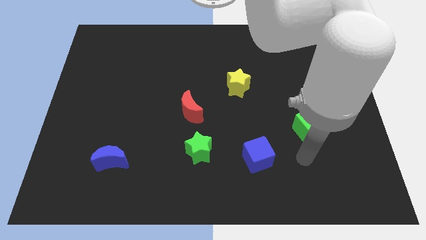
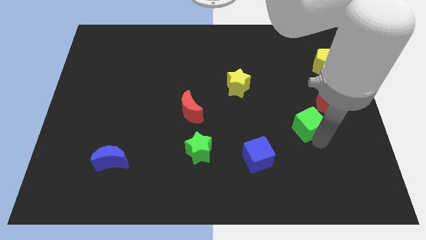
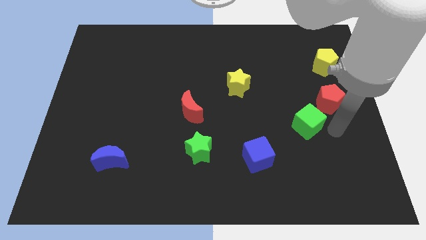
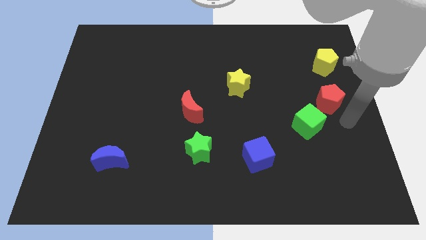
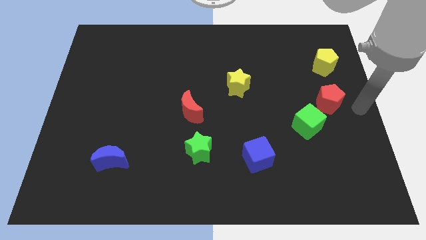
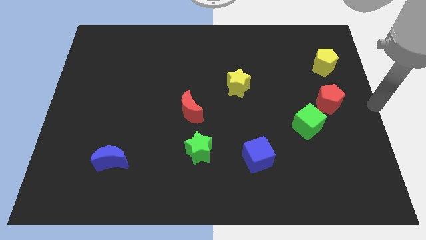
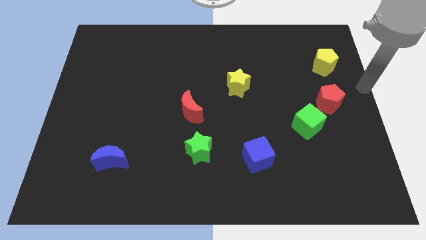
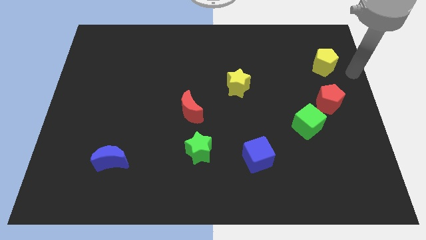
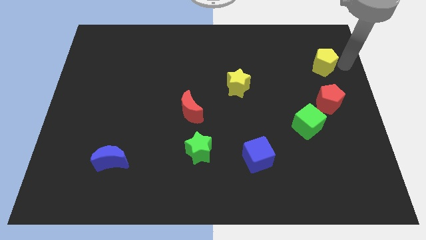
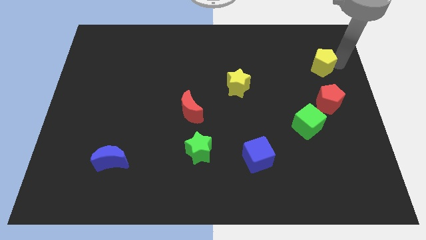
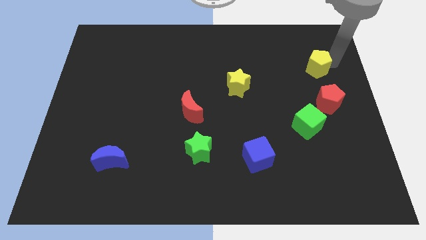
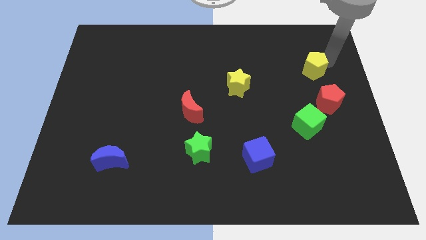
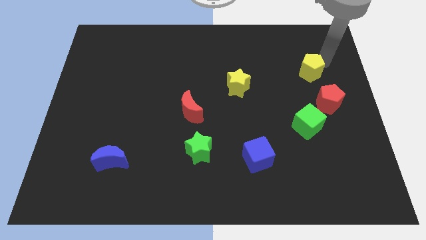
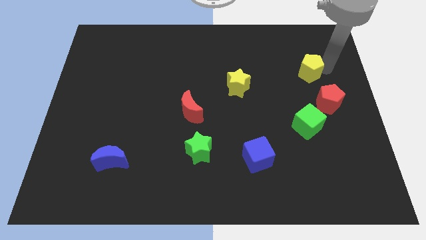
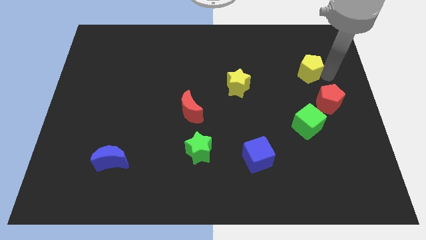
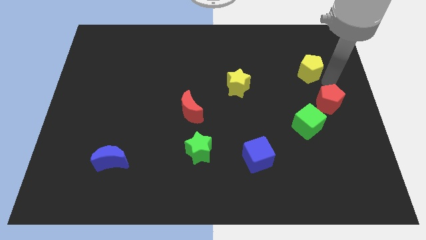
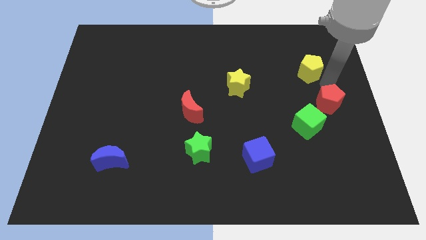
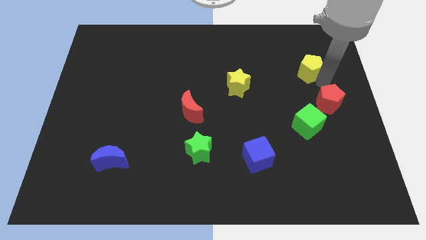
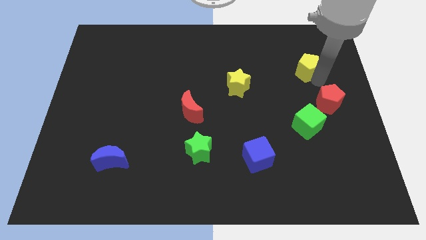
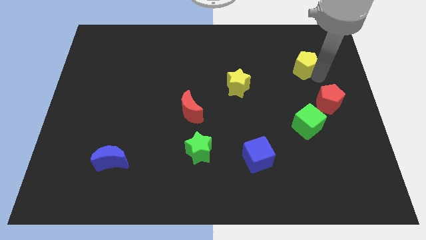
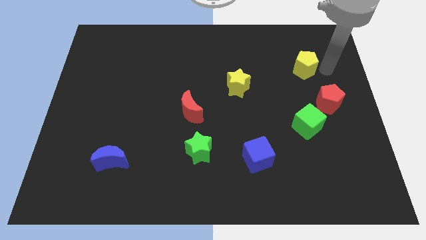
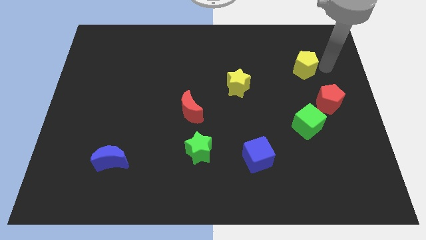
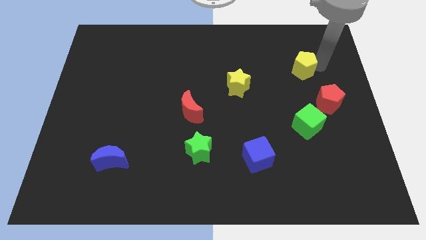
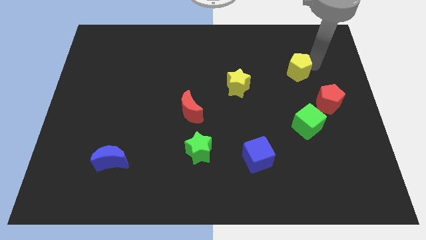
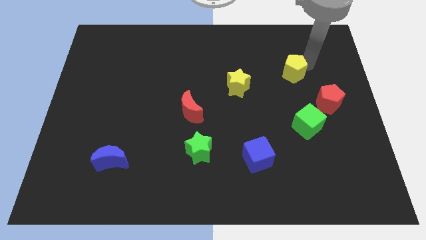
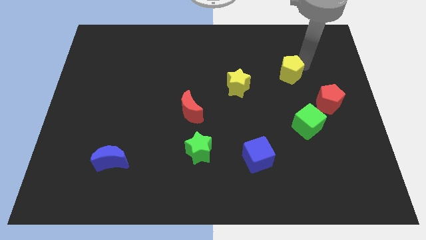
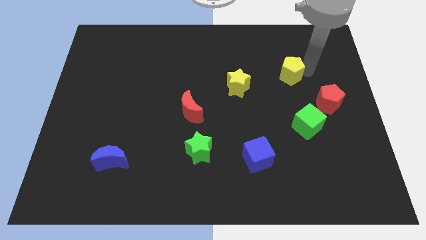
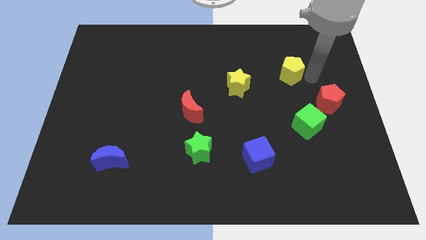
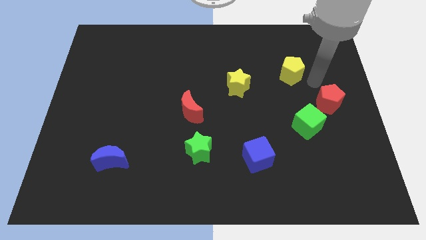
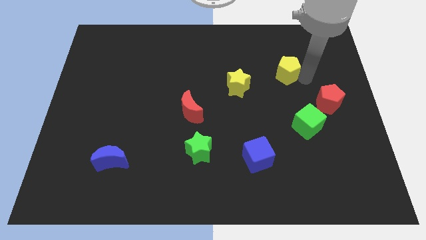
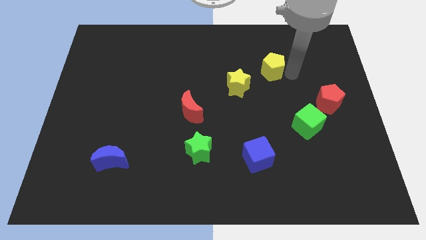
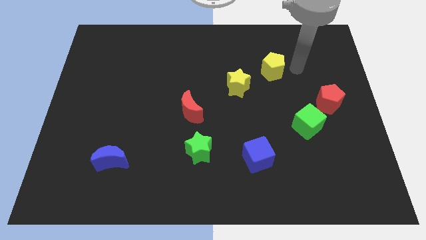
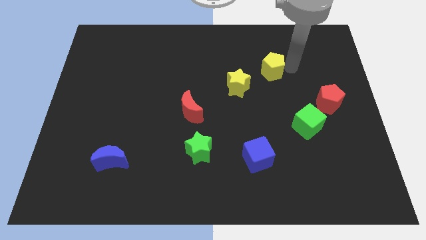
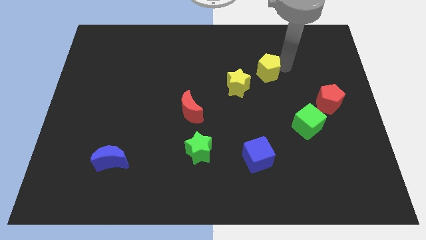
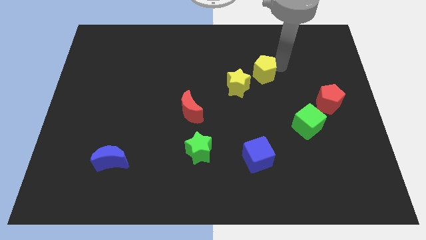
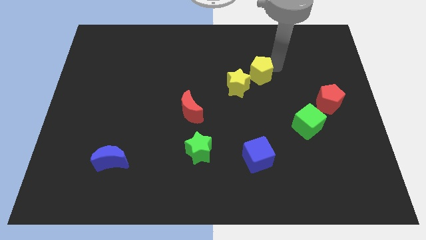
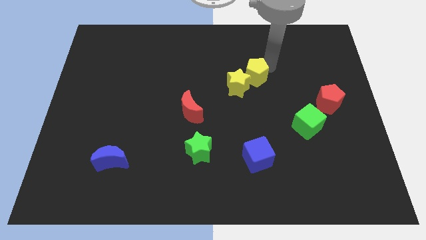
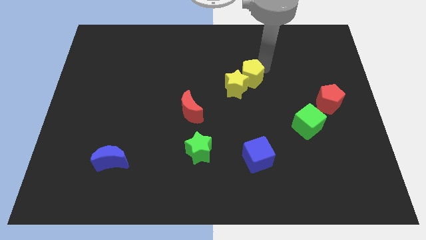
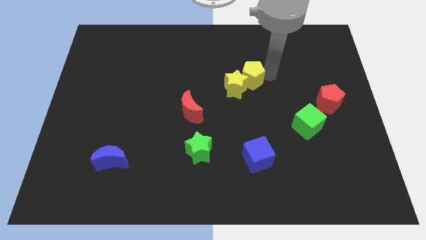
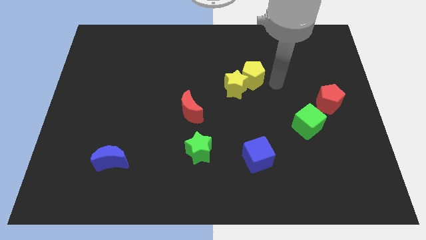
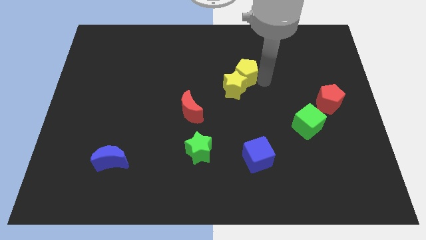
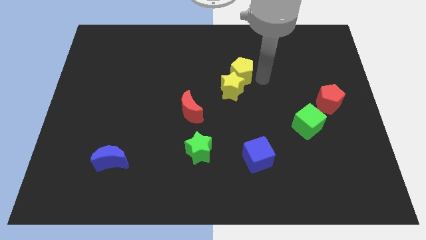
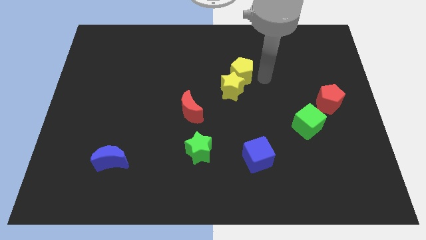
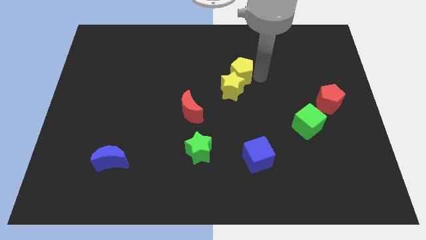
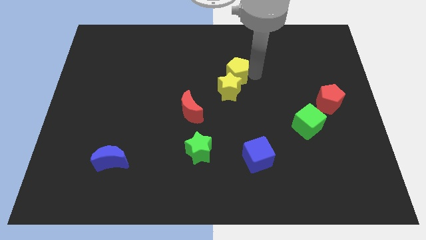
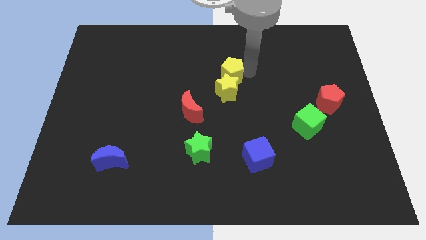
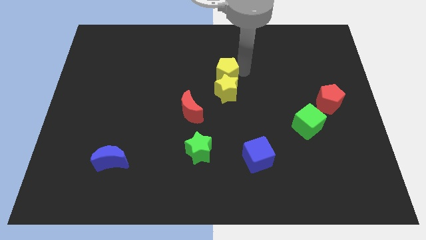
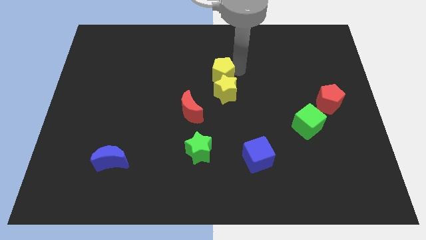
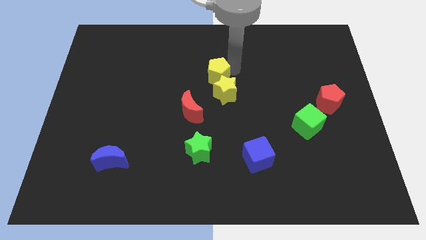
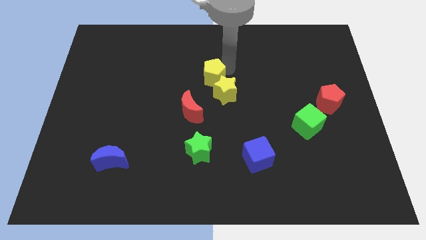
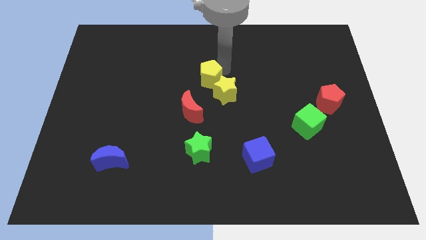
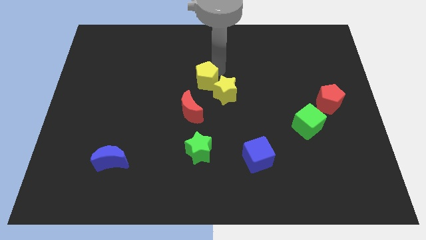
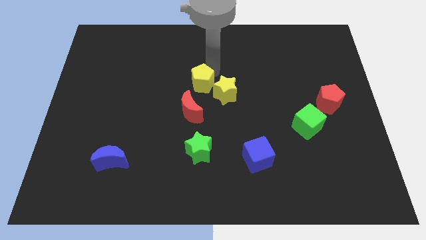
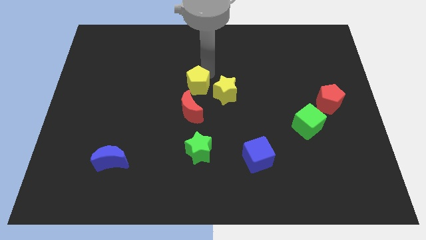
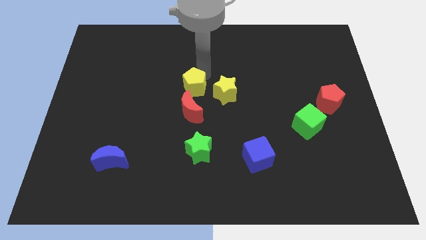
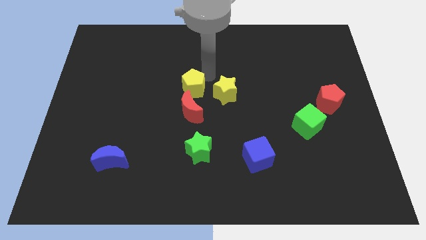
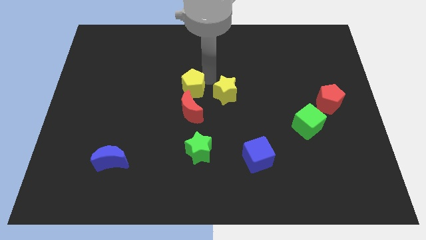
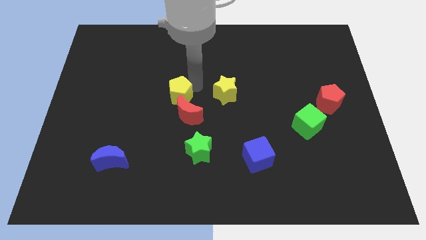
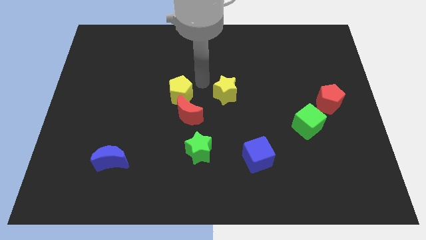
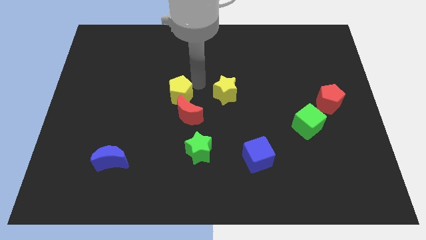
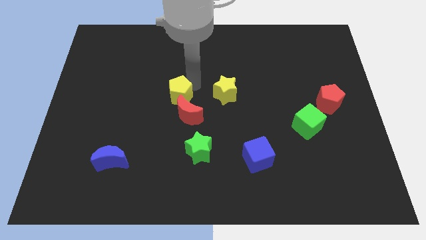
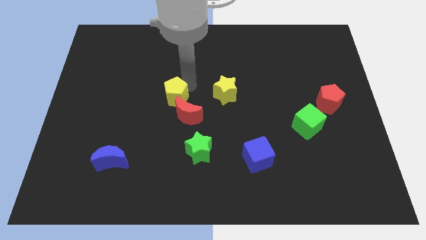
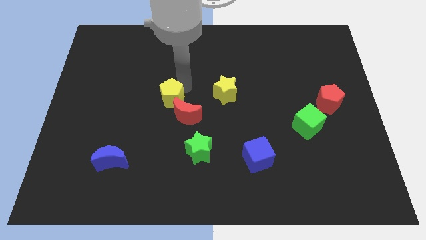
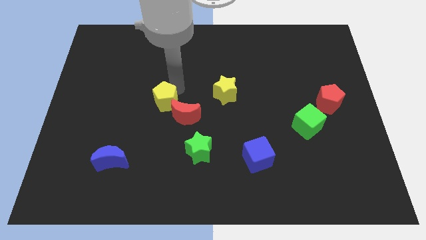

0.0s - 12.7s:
move the yellow pentagon left of the red moon

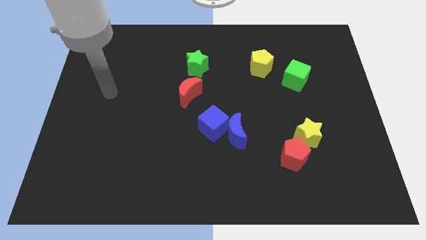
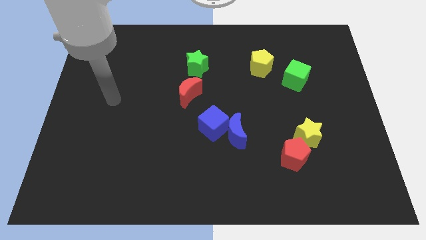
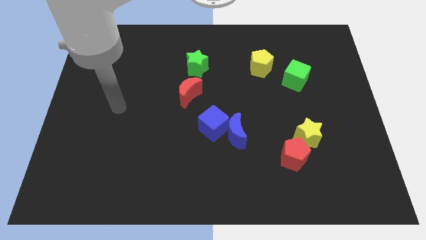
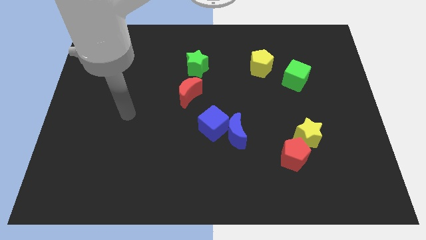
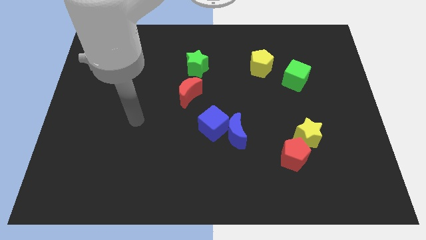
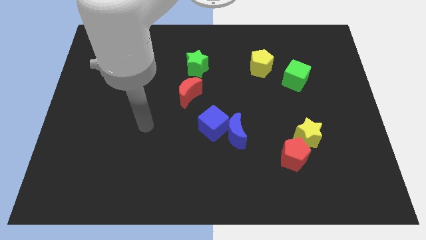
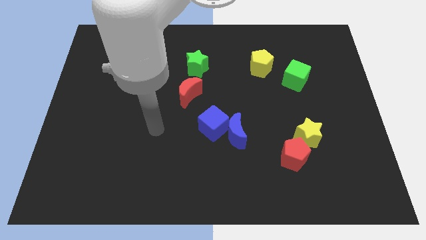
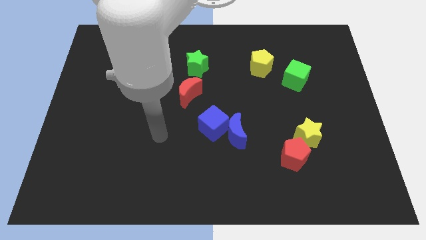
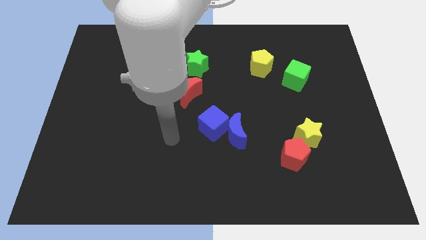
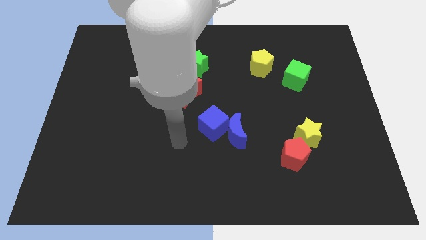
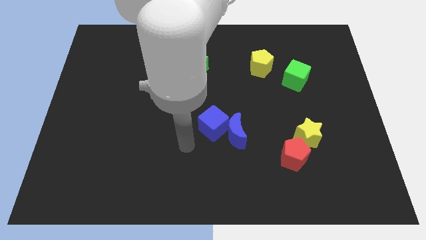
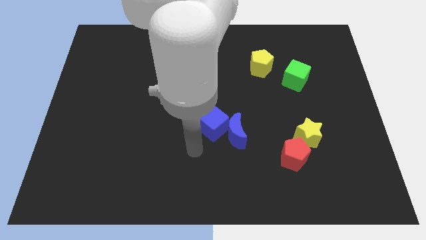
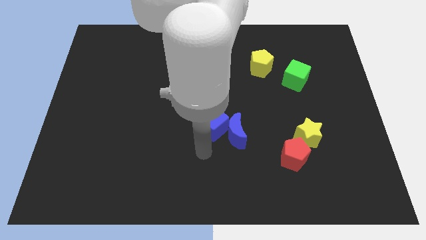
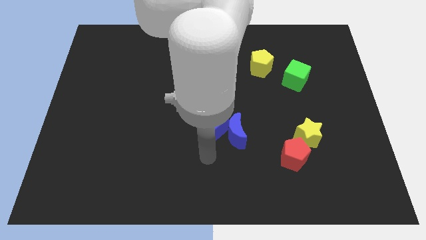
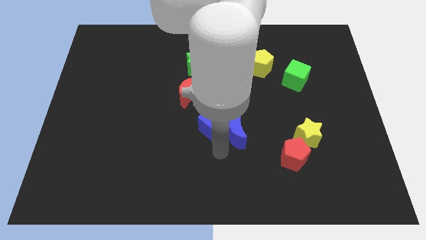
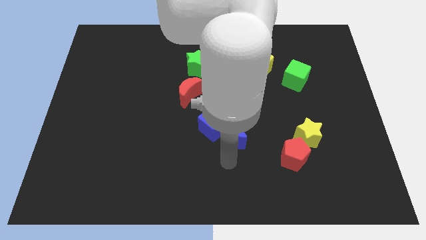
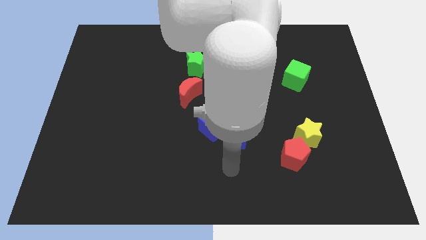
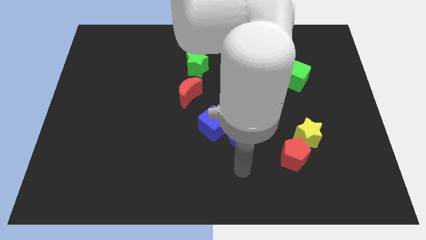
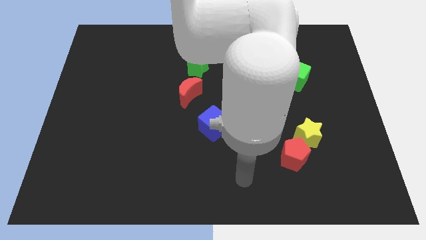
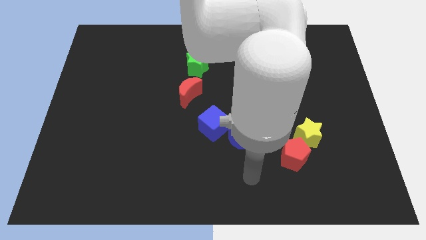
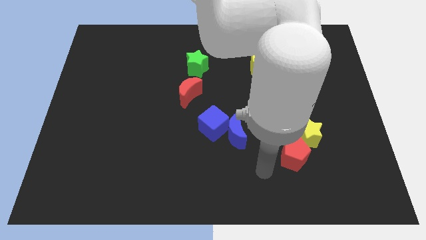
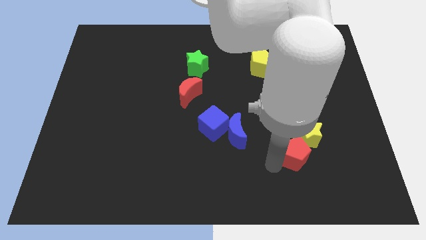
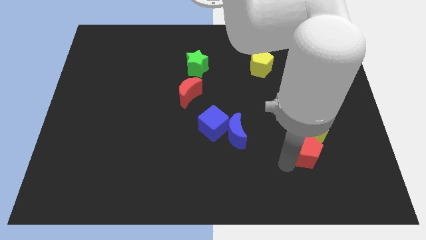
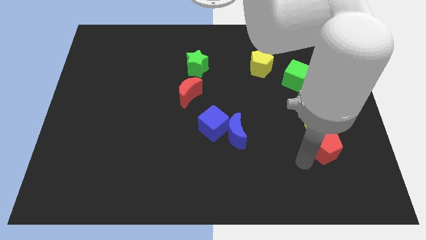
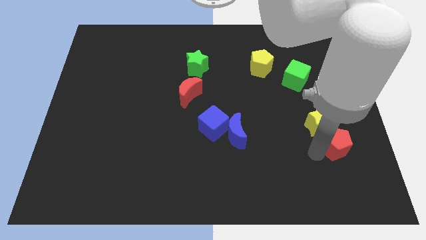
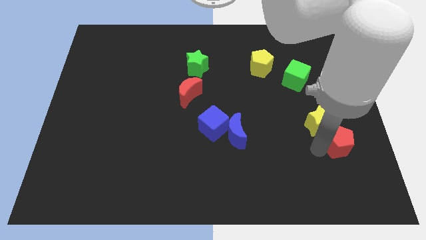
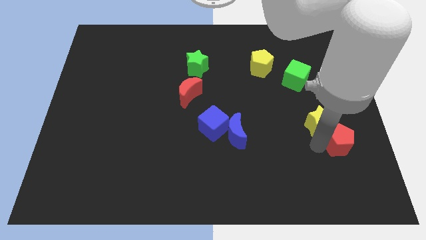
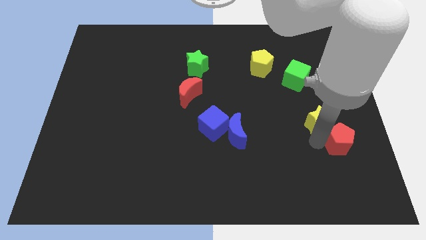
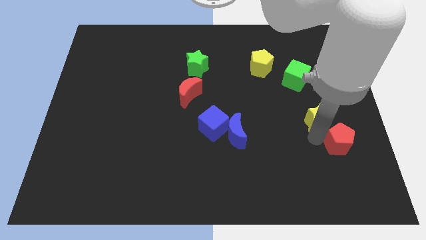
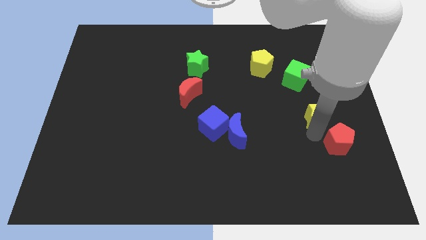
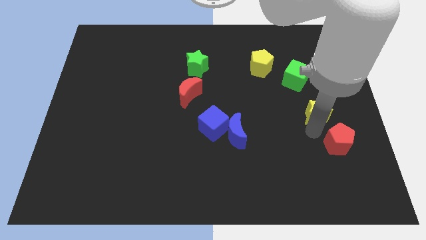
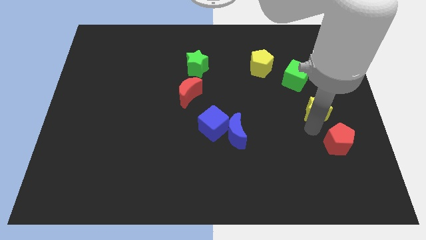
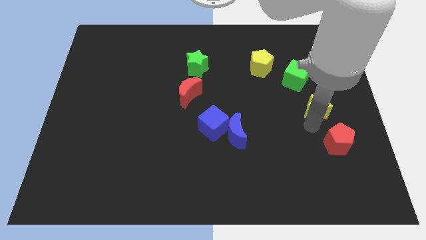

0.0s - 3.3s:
put the yellow star diagonally down and to the right of the green cube
